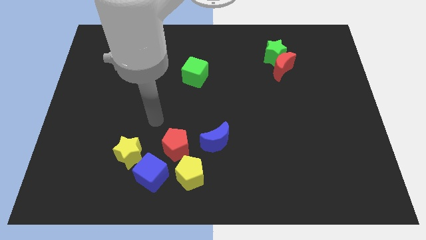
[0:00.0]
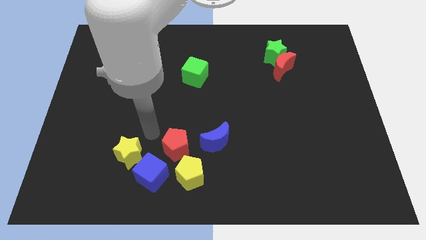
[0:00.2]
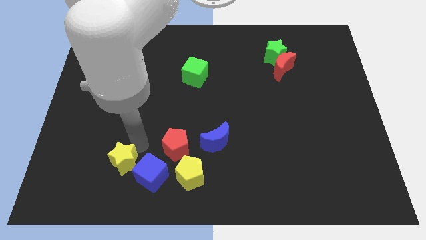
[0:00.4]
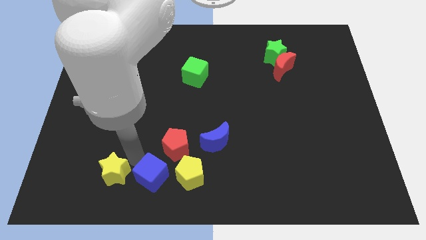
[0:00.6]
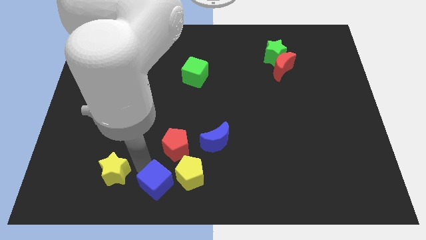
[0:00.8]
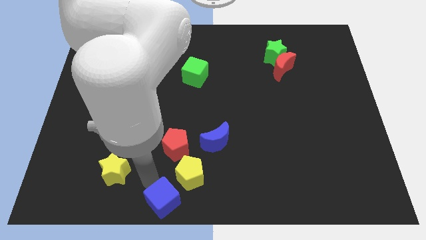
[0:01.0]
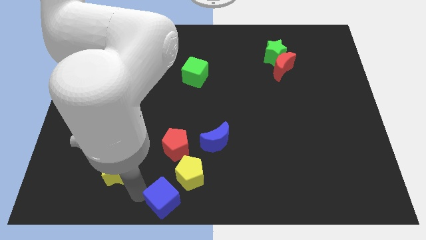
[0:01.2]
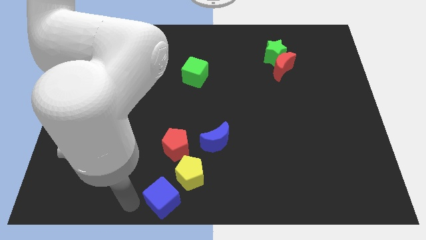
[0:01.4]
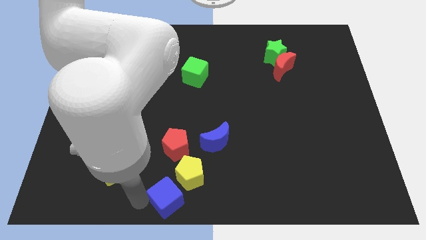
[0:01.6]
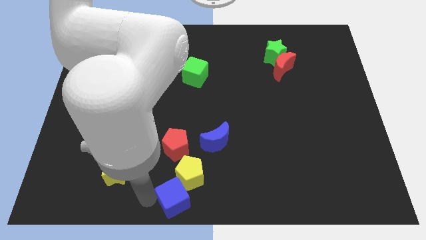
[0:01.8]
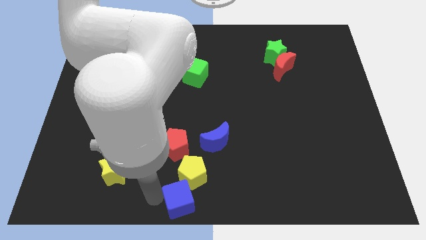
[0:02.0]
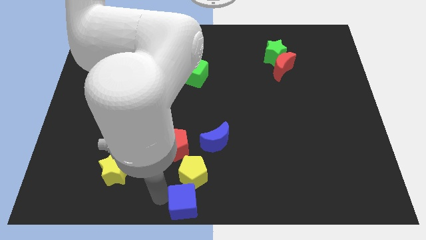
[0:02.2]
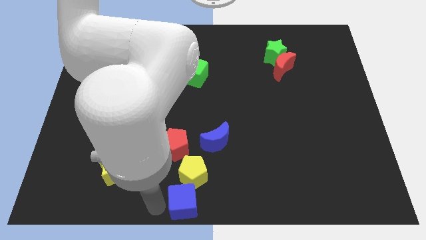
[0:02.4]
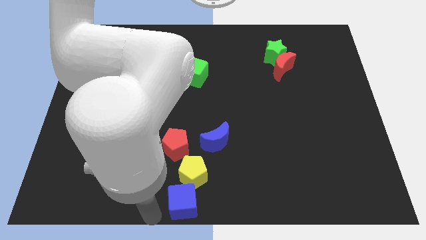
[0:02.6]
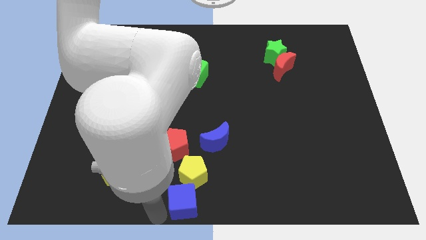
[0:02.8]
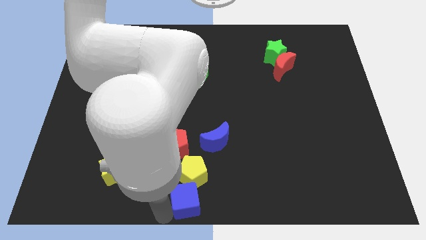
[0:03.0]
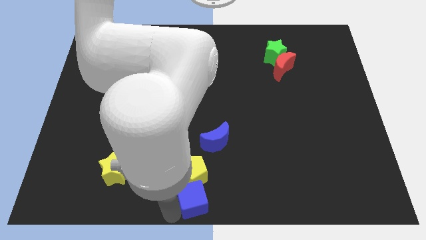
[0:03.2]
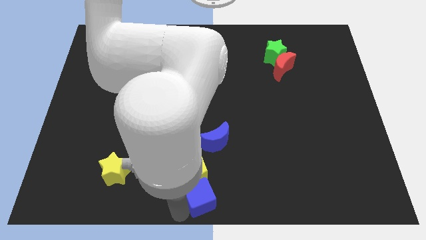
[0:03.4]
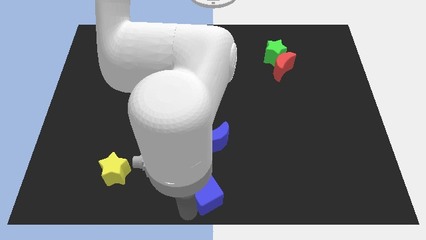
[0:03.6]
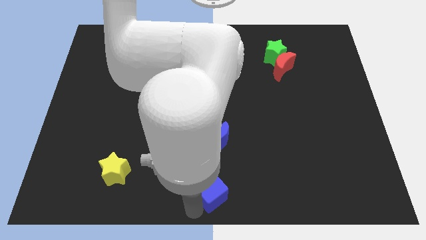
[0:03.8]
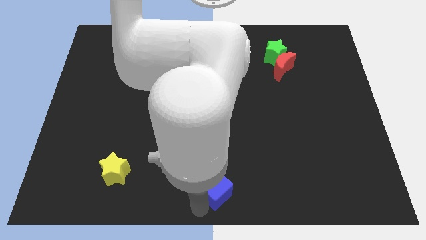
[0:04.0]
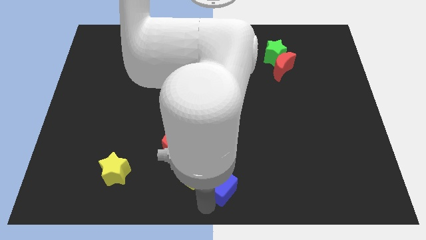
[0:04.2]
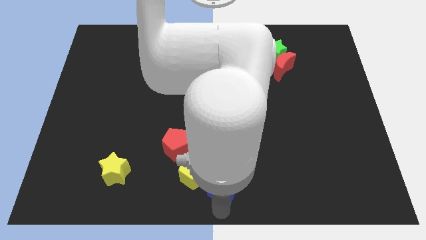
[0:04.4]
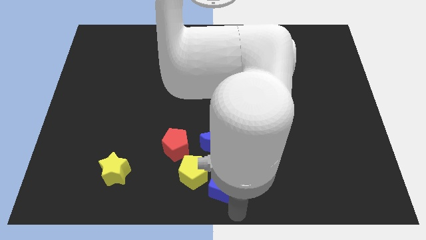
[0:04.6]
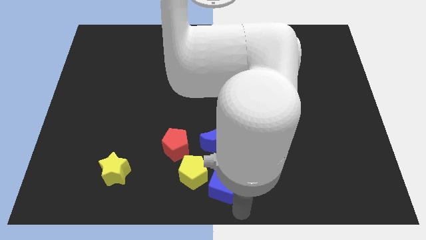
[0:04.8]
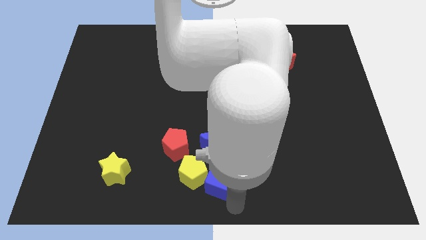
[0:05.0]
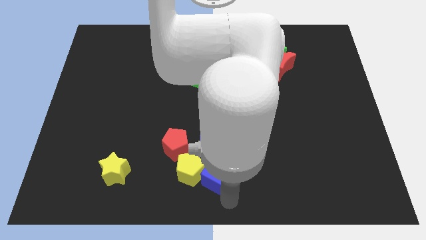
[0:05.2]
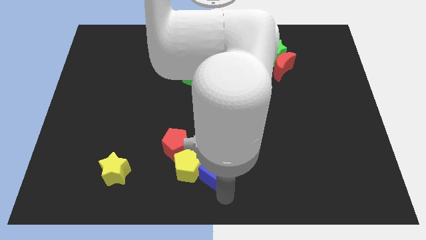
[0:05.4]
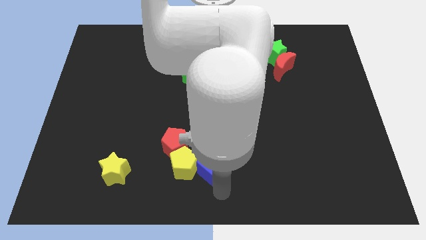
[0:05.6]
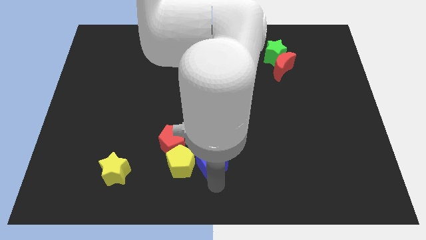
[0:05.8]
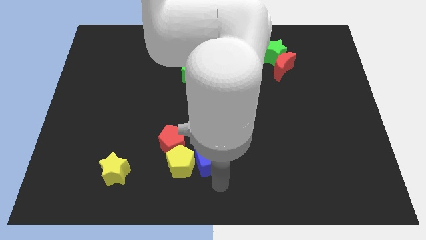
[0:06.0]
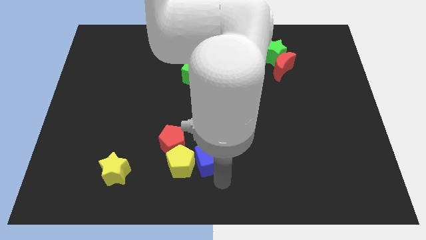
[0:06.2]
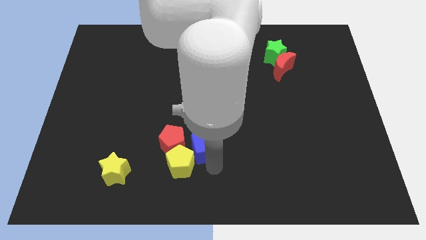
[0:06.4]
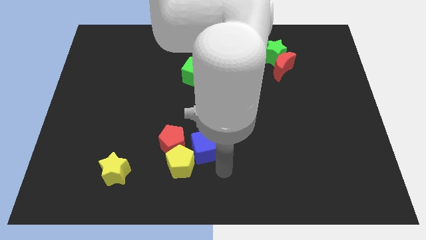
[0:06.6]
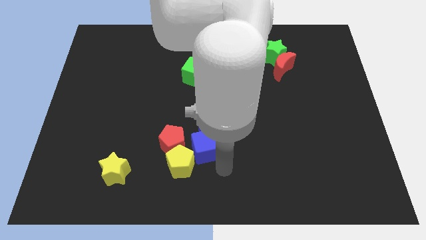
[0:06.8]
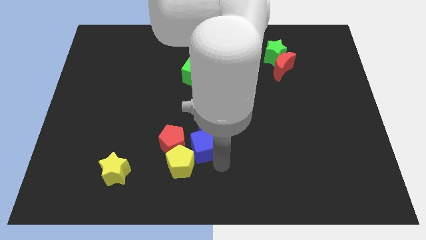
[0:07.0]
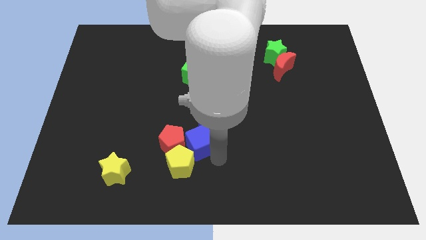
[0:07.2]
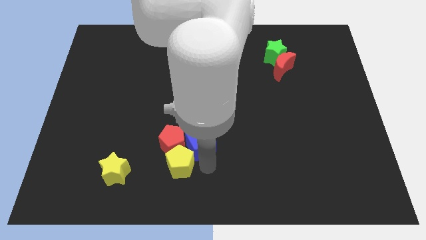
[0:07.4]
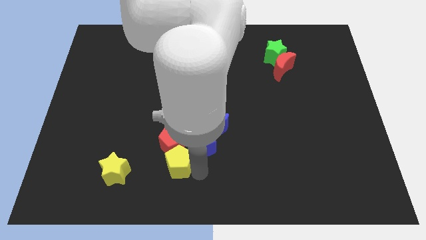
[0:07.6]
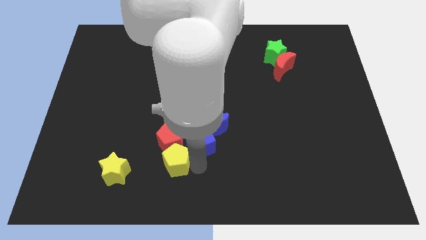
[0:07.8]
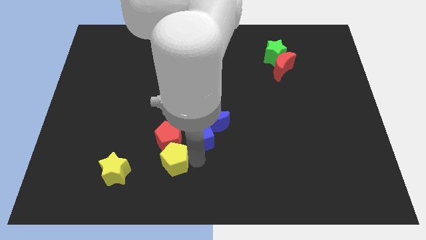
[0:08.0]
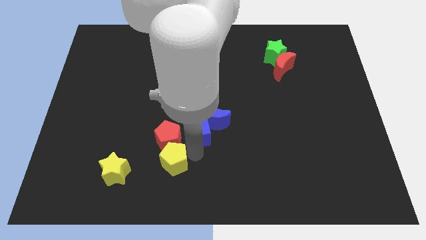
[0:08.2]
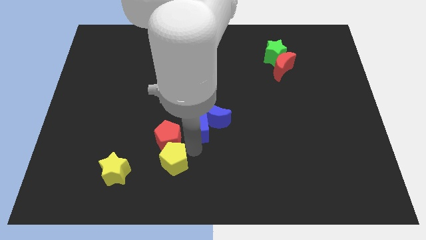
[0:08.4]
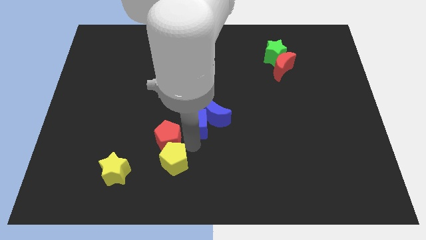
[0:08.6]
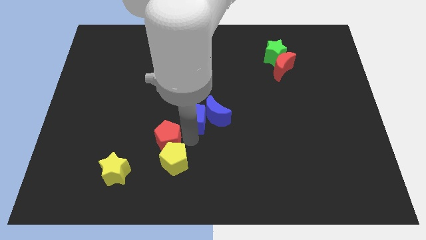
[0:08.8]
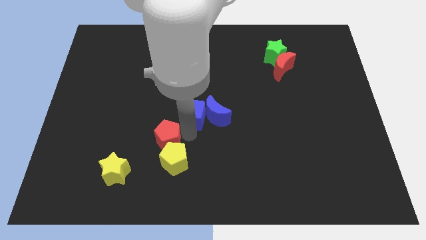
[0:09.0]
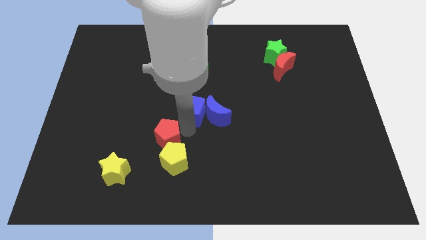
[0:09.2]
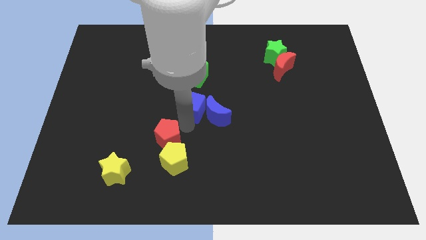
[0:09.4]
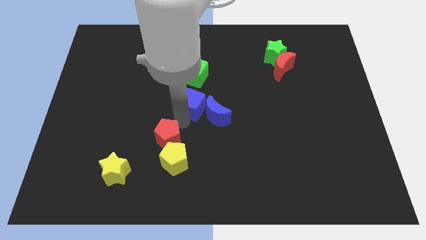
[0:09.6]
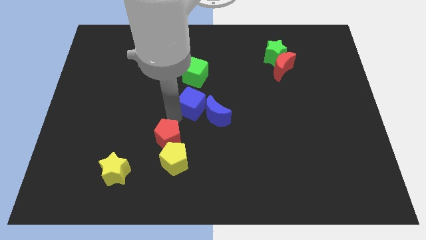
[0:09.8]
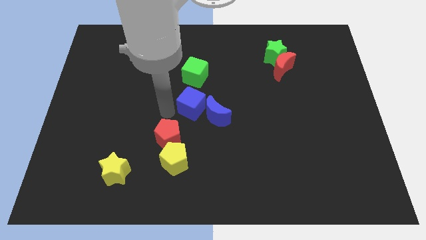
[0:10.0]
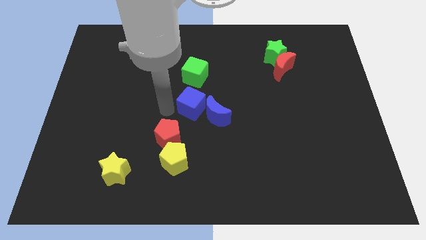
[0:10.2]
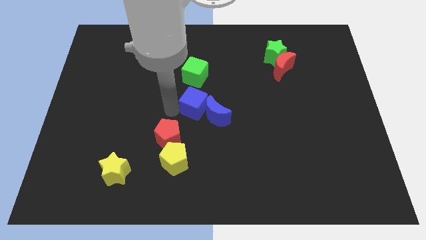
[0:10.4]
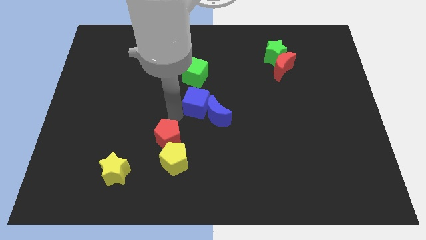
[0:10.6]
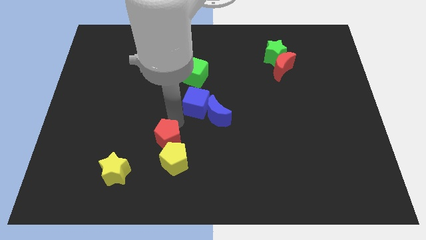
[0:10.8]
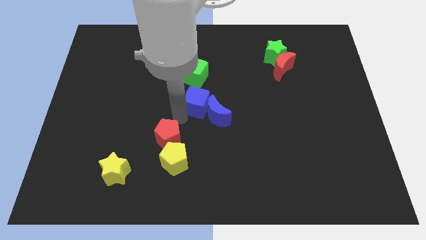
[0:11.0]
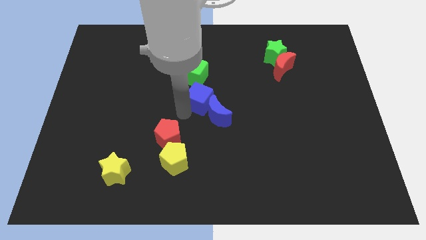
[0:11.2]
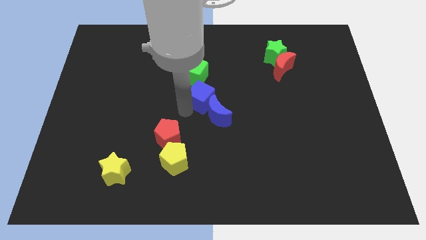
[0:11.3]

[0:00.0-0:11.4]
slide the blue cube diagonally down and to the right of the green cube

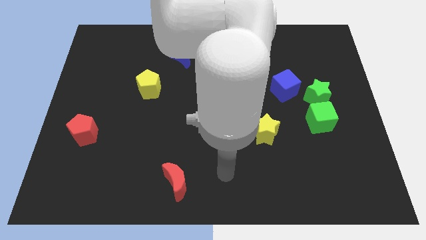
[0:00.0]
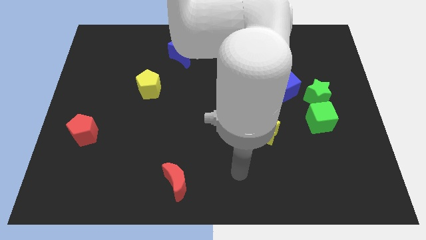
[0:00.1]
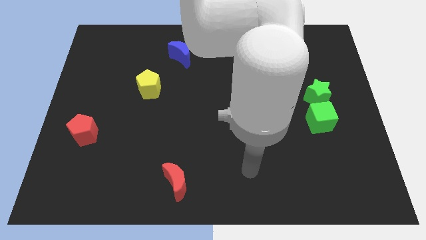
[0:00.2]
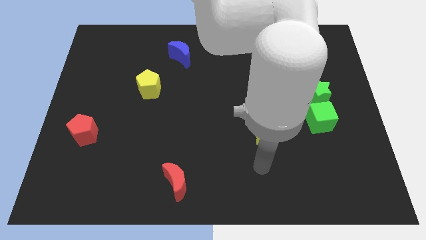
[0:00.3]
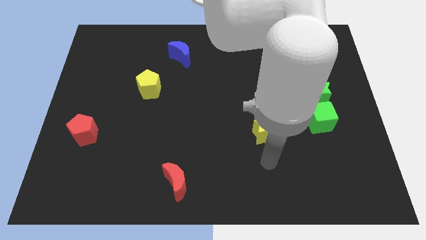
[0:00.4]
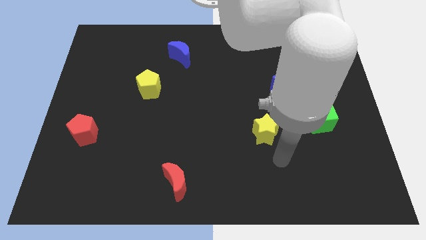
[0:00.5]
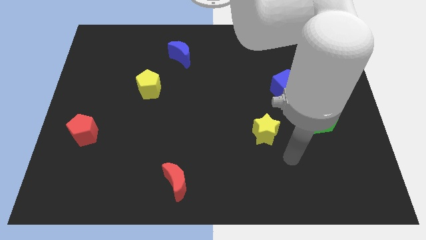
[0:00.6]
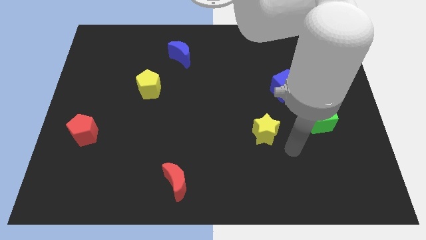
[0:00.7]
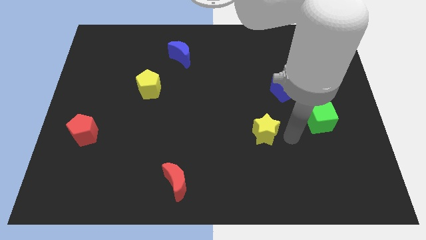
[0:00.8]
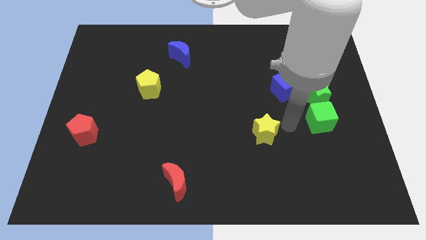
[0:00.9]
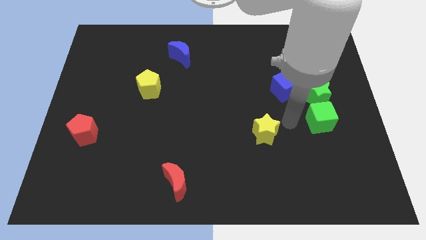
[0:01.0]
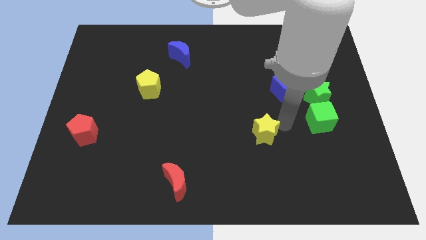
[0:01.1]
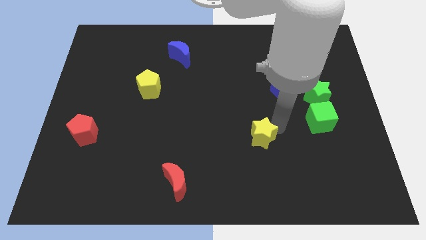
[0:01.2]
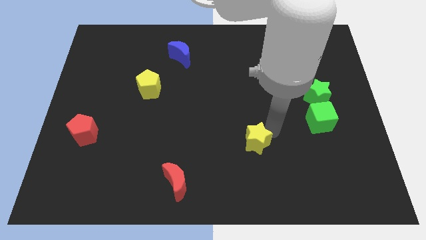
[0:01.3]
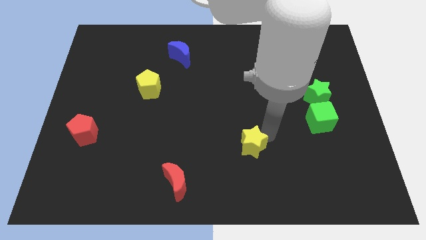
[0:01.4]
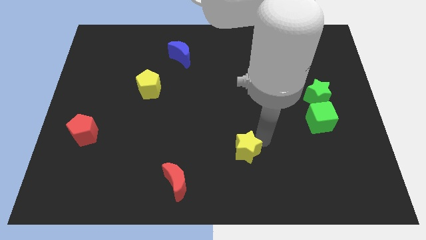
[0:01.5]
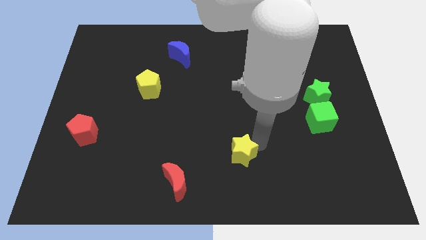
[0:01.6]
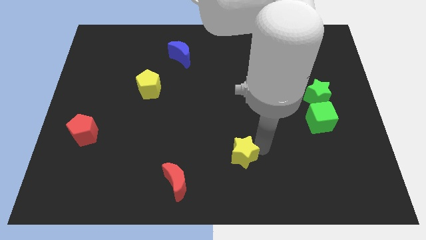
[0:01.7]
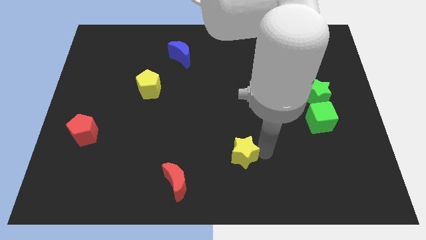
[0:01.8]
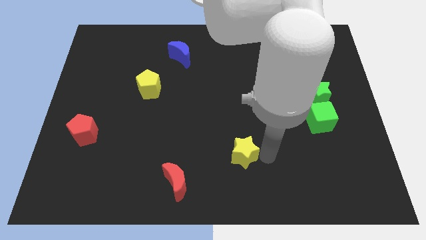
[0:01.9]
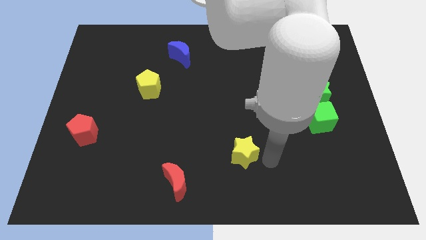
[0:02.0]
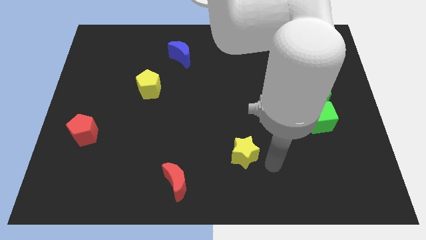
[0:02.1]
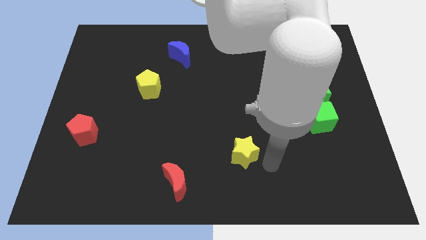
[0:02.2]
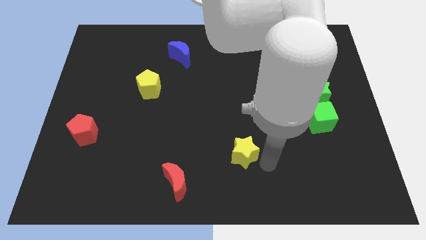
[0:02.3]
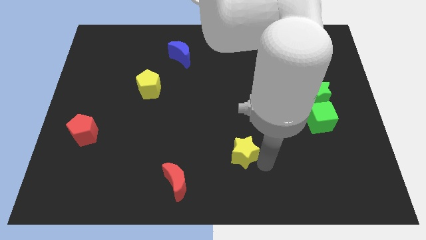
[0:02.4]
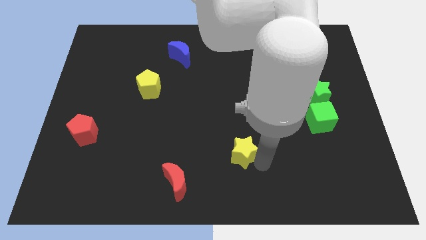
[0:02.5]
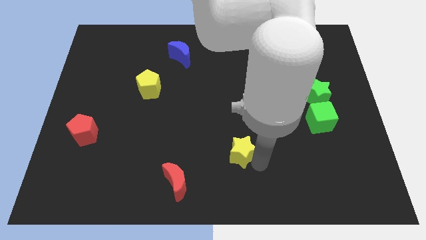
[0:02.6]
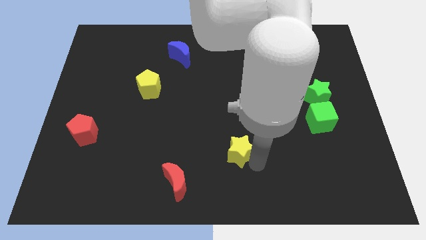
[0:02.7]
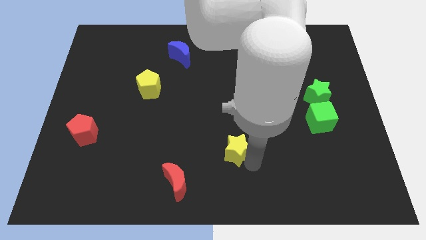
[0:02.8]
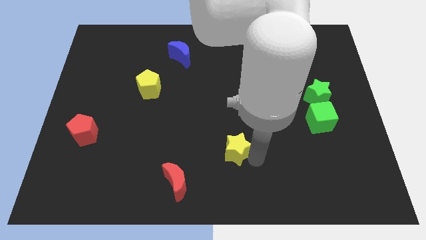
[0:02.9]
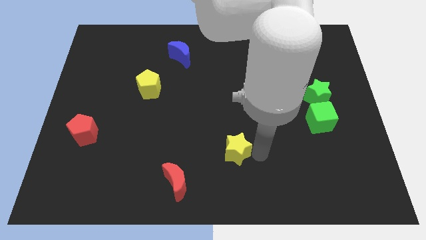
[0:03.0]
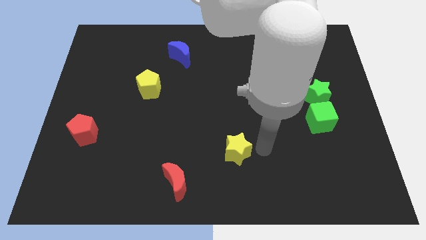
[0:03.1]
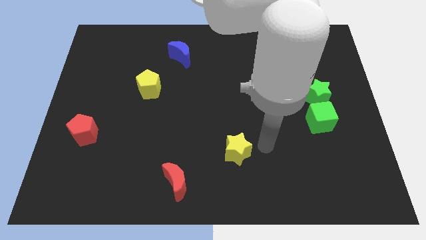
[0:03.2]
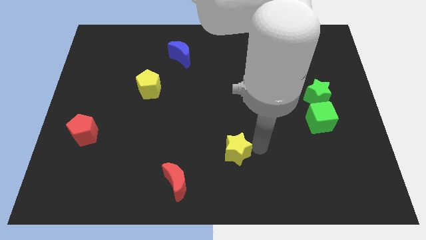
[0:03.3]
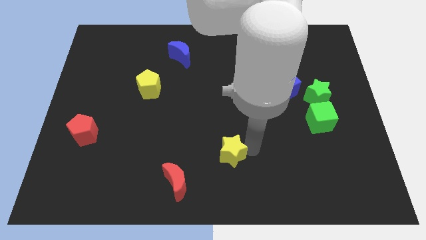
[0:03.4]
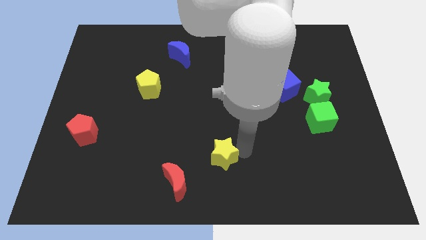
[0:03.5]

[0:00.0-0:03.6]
slide the yellow star to the top right of the red moon
